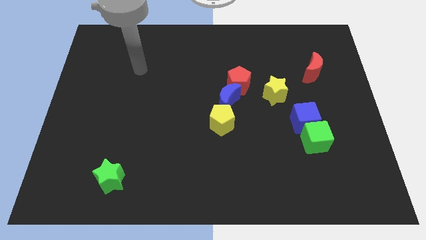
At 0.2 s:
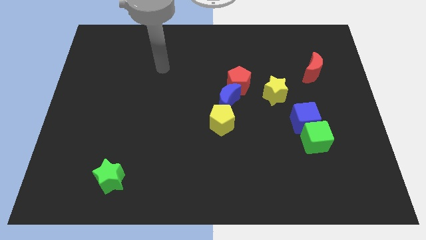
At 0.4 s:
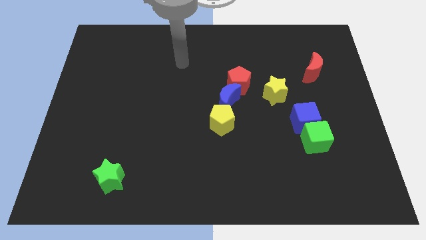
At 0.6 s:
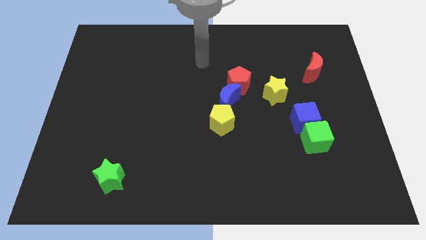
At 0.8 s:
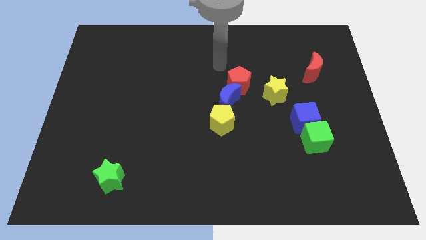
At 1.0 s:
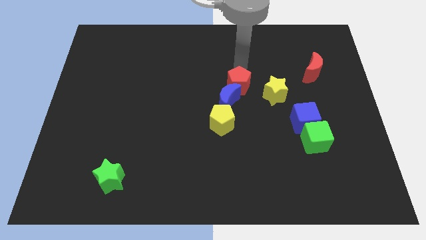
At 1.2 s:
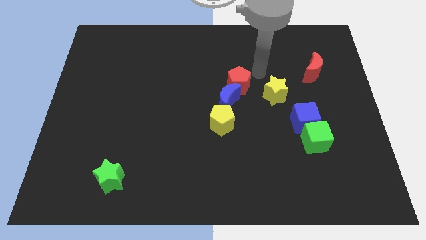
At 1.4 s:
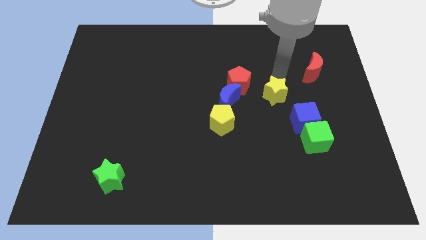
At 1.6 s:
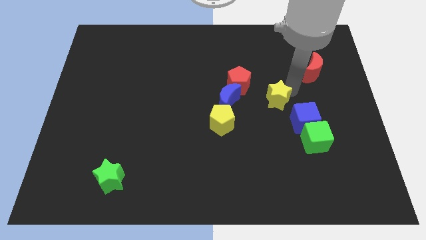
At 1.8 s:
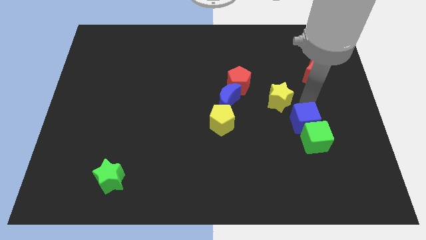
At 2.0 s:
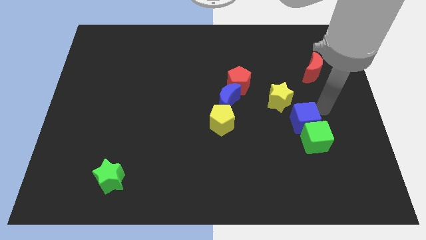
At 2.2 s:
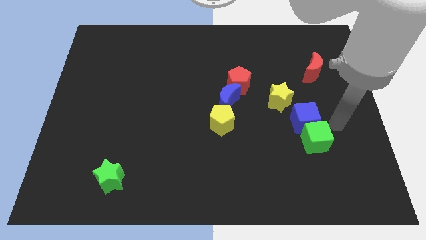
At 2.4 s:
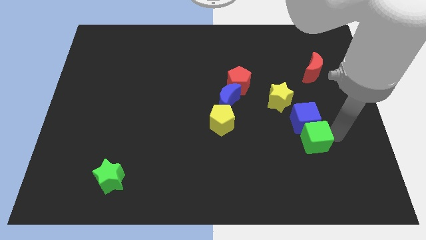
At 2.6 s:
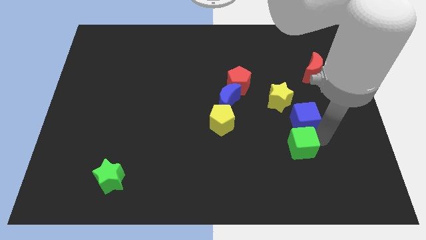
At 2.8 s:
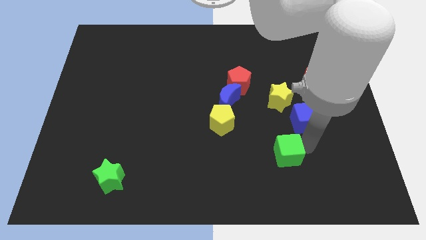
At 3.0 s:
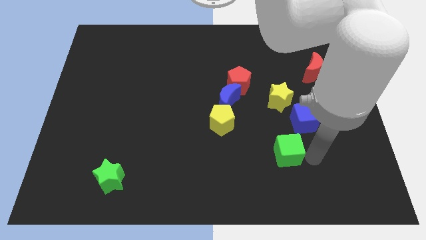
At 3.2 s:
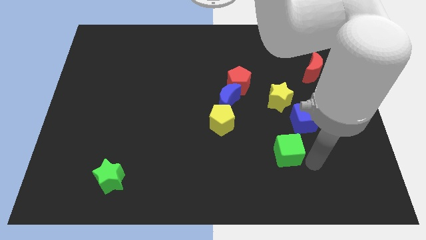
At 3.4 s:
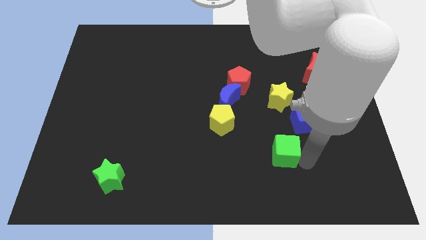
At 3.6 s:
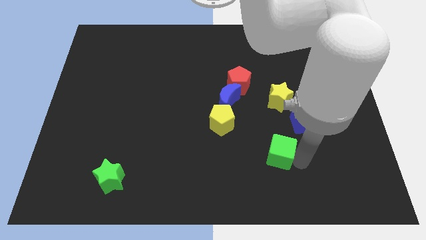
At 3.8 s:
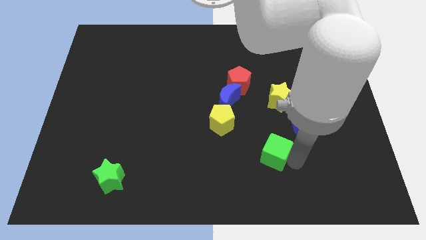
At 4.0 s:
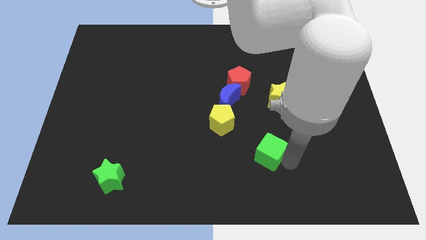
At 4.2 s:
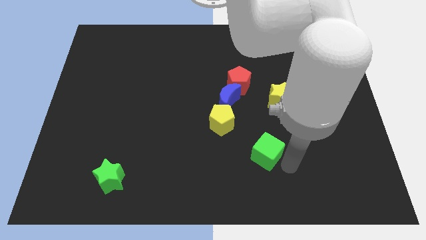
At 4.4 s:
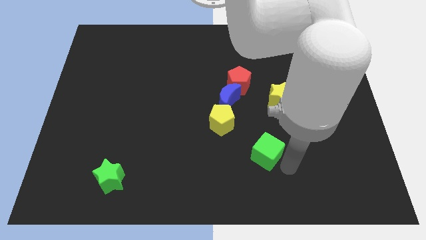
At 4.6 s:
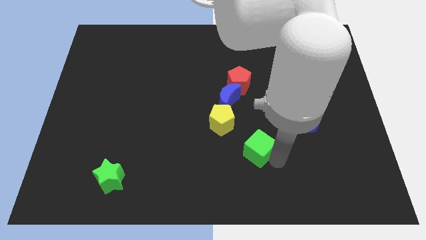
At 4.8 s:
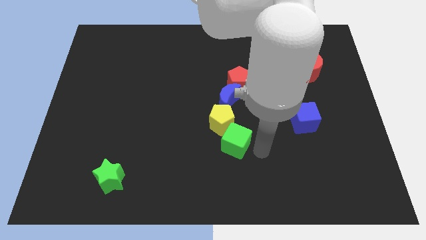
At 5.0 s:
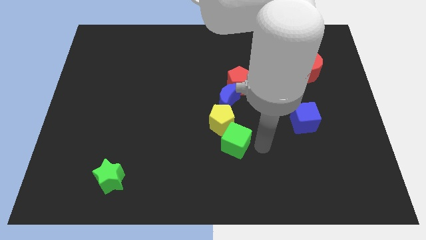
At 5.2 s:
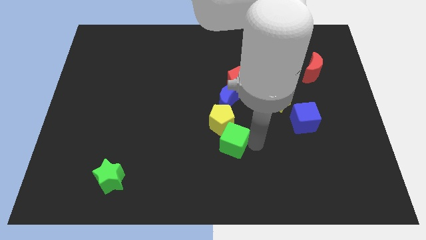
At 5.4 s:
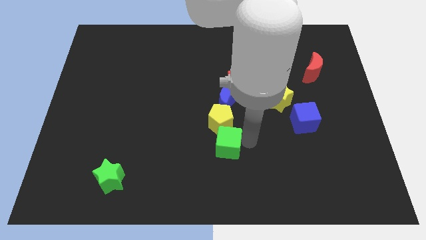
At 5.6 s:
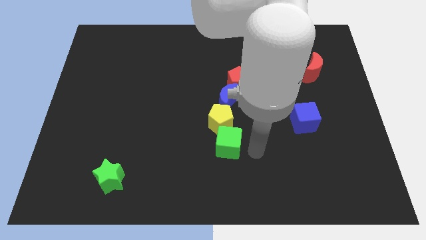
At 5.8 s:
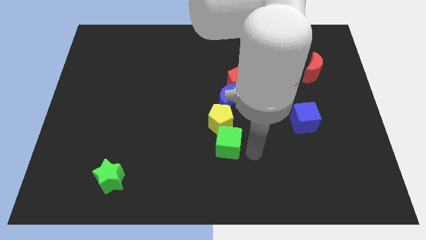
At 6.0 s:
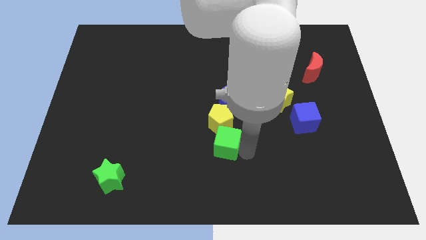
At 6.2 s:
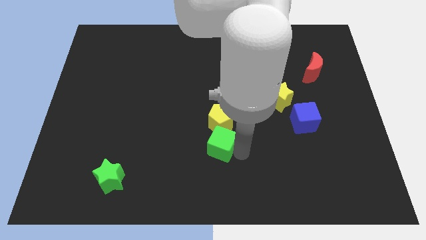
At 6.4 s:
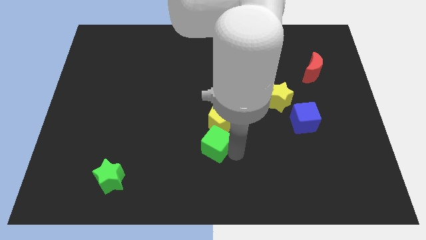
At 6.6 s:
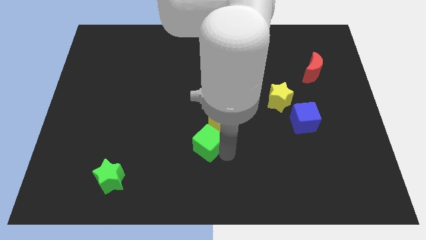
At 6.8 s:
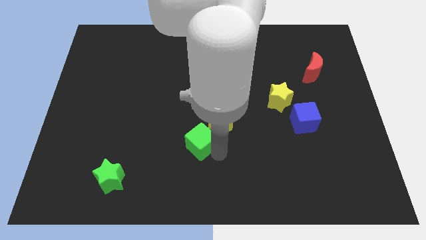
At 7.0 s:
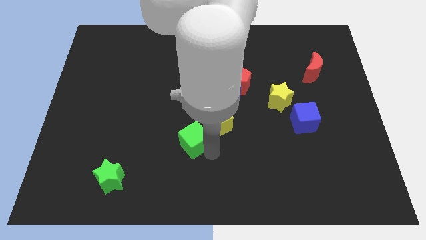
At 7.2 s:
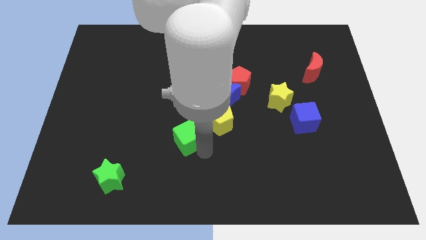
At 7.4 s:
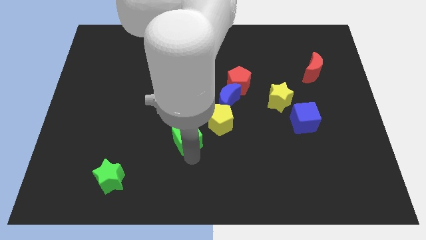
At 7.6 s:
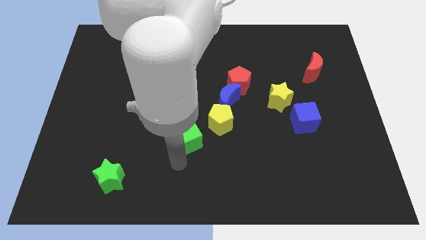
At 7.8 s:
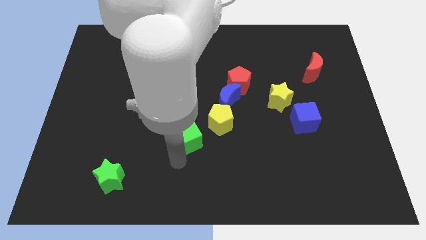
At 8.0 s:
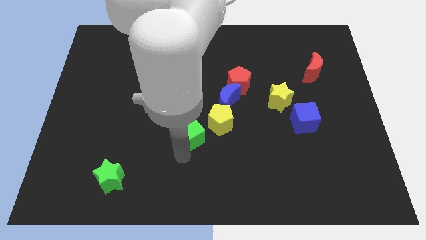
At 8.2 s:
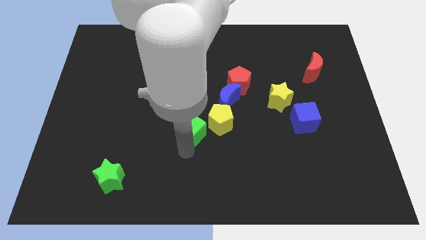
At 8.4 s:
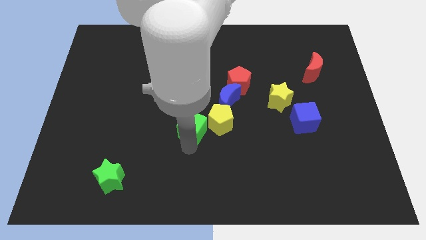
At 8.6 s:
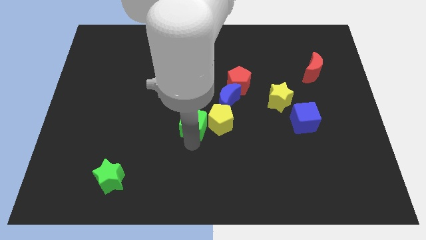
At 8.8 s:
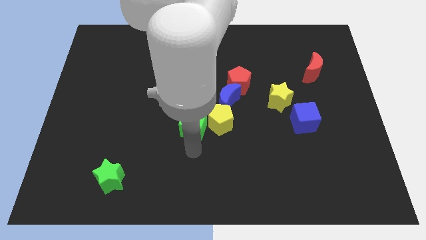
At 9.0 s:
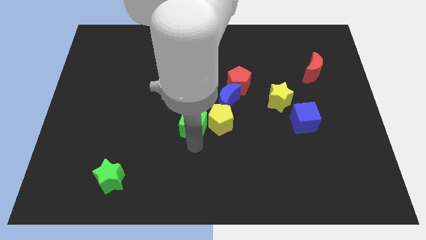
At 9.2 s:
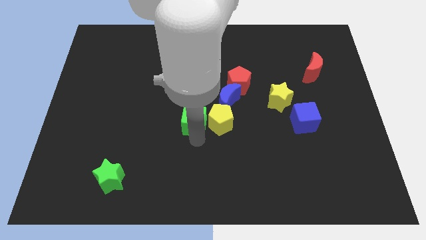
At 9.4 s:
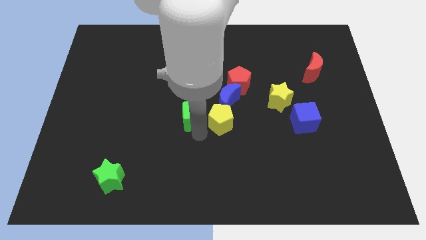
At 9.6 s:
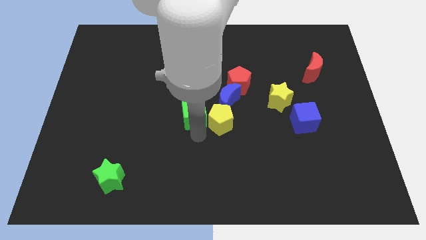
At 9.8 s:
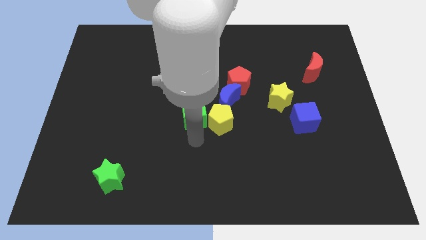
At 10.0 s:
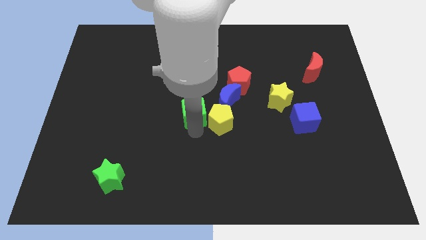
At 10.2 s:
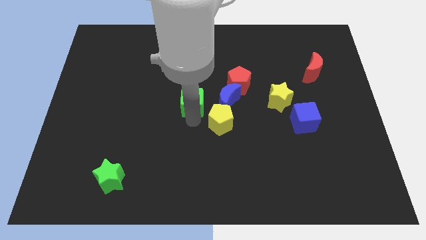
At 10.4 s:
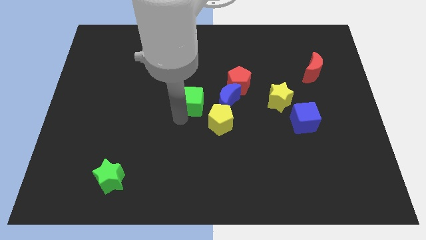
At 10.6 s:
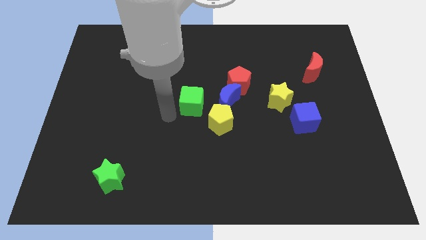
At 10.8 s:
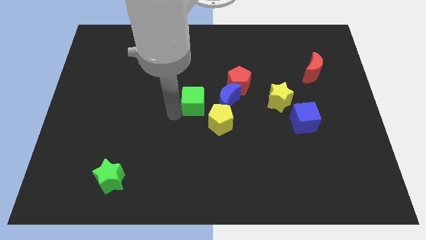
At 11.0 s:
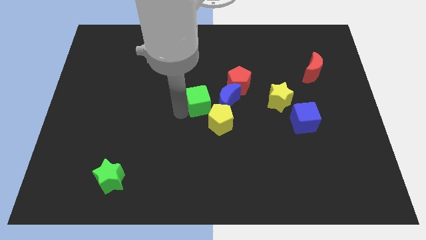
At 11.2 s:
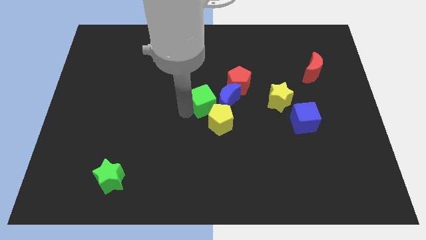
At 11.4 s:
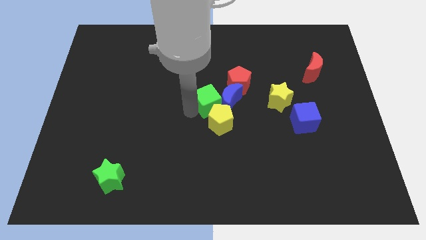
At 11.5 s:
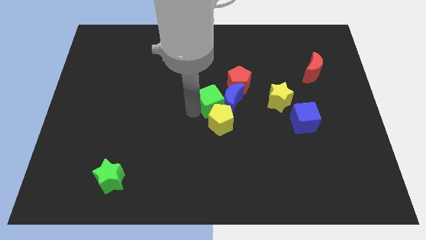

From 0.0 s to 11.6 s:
push the green cube just left of the yellow star
